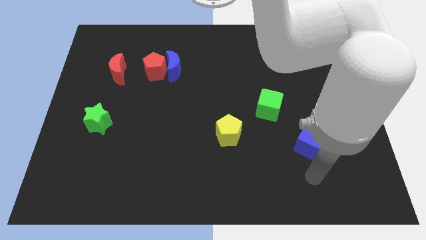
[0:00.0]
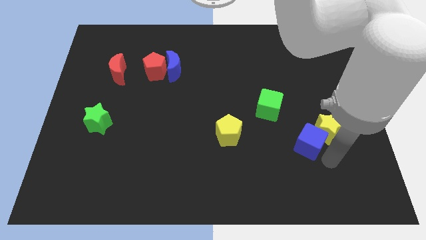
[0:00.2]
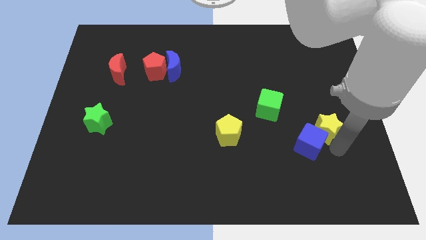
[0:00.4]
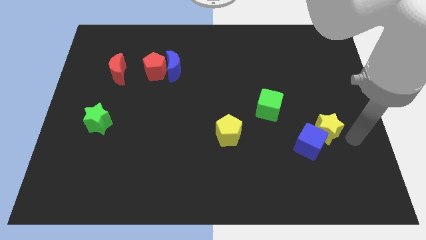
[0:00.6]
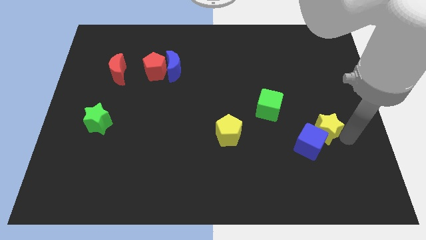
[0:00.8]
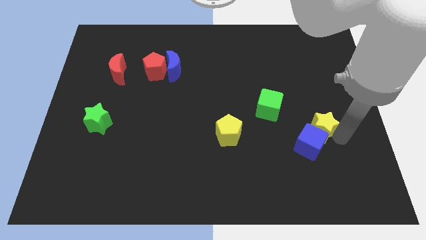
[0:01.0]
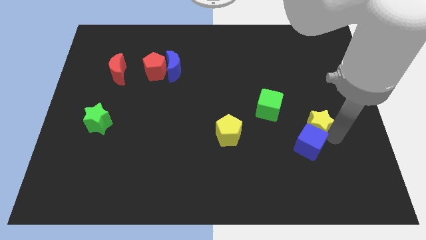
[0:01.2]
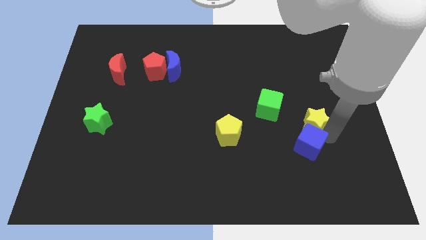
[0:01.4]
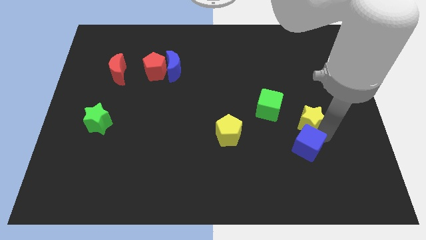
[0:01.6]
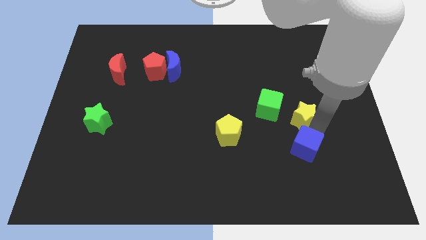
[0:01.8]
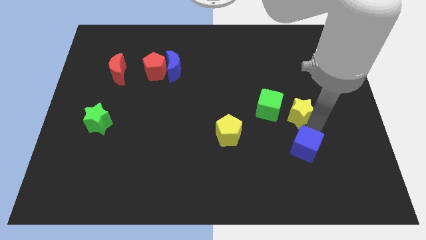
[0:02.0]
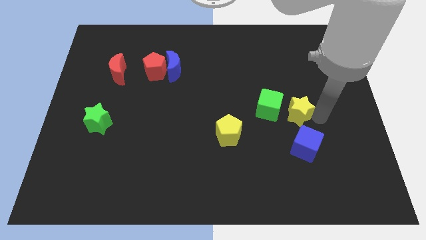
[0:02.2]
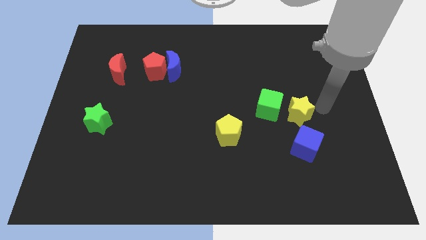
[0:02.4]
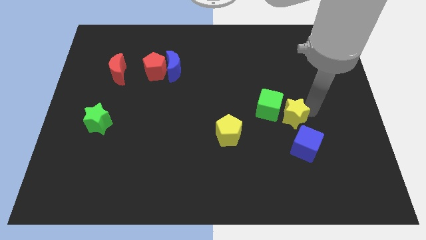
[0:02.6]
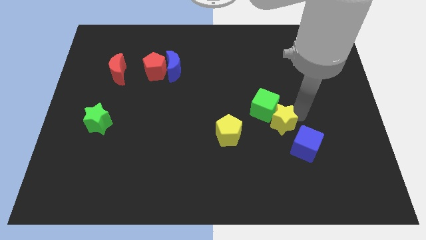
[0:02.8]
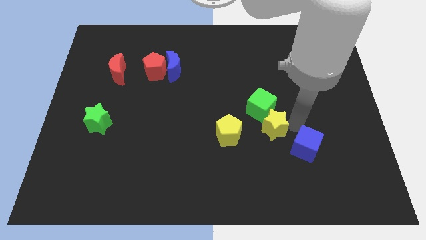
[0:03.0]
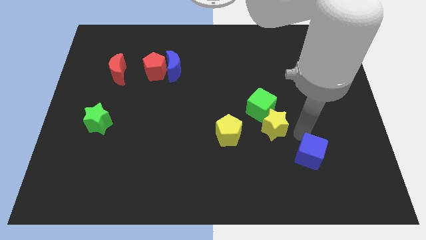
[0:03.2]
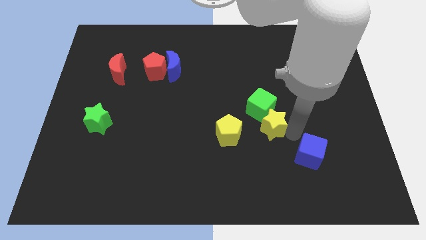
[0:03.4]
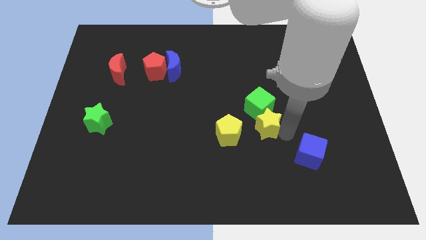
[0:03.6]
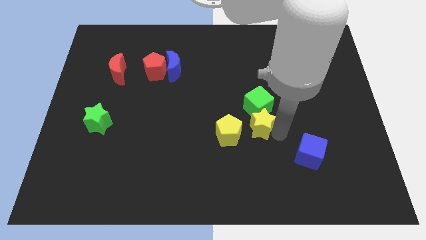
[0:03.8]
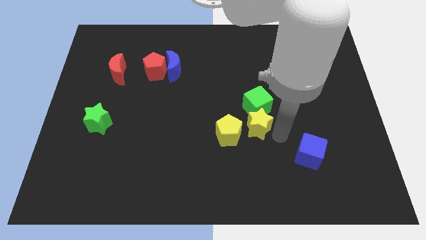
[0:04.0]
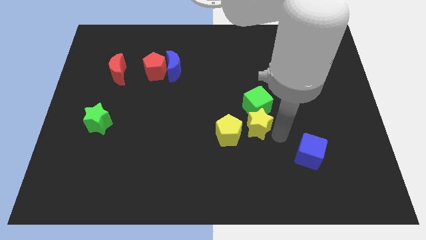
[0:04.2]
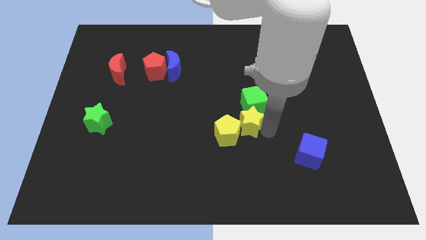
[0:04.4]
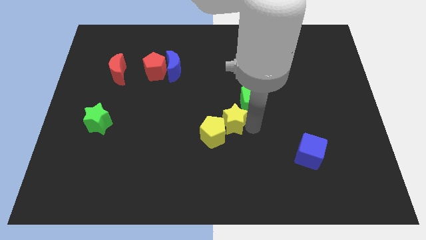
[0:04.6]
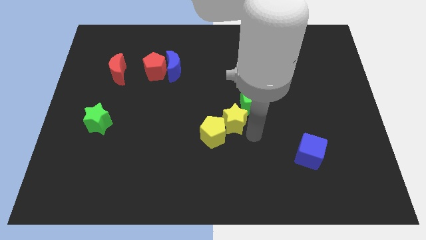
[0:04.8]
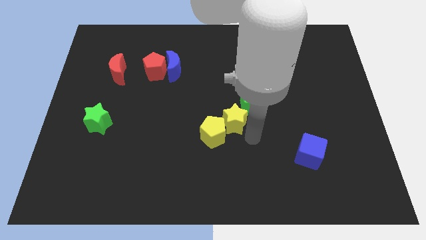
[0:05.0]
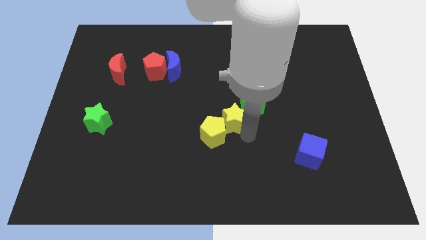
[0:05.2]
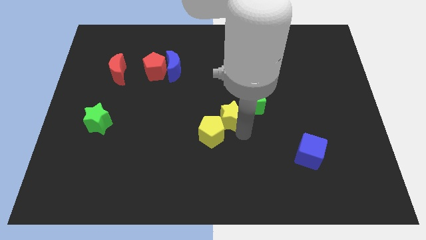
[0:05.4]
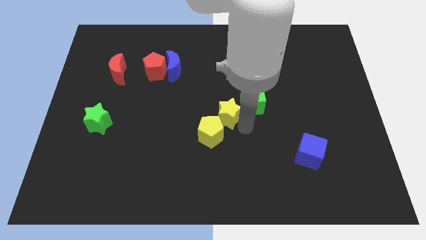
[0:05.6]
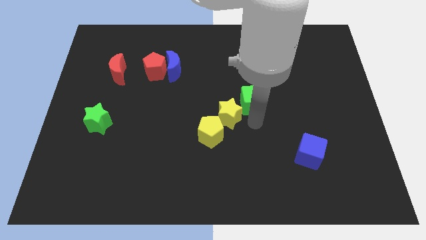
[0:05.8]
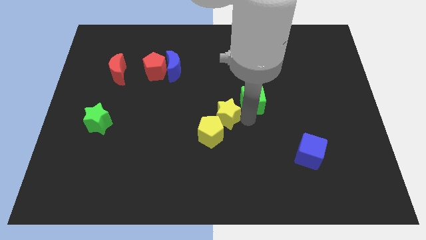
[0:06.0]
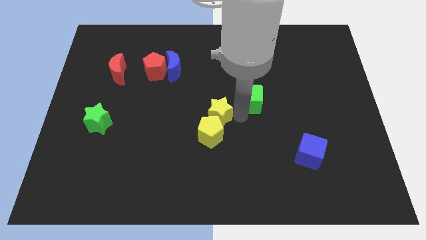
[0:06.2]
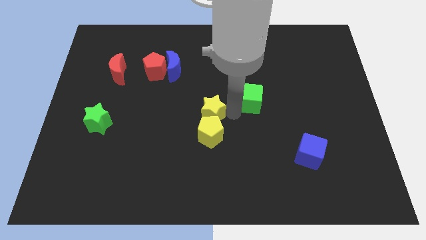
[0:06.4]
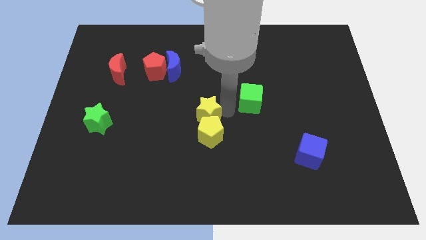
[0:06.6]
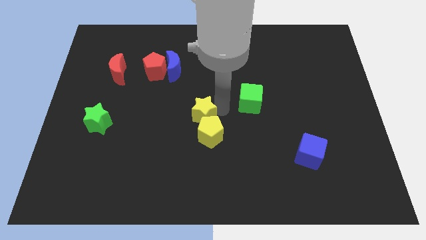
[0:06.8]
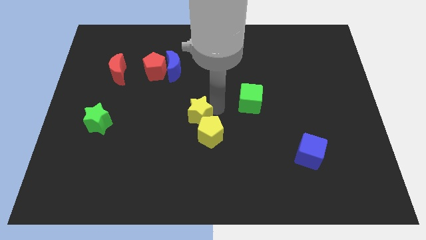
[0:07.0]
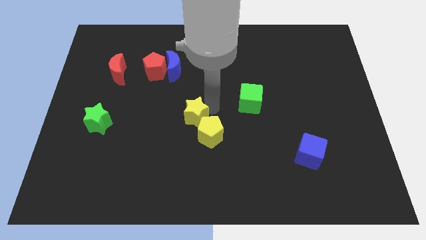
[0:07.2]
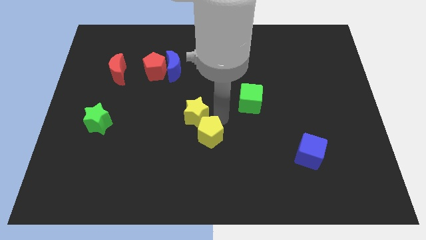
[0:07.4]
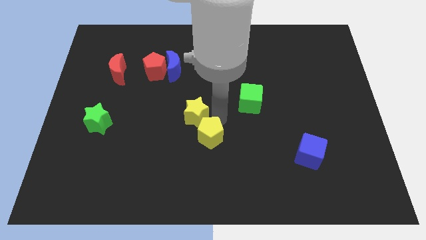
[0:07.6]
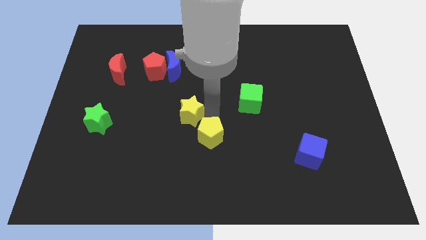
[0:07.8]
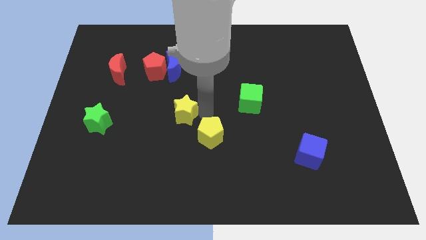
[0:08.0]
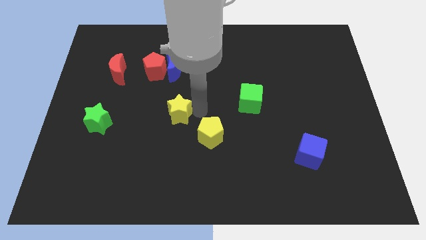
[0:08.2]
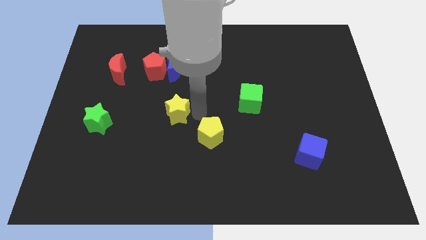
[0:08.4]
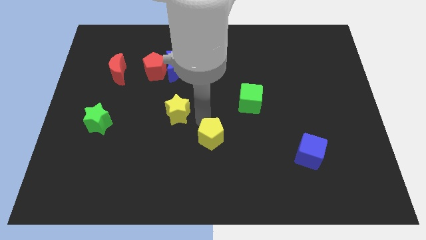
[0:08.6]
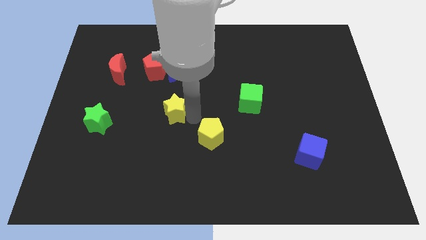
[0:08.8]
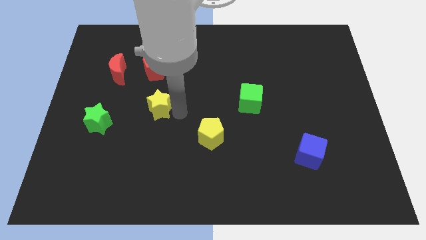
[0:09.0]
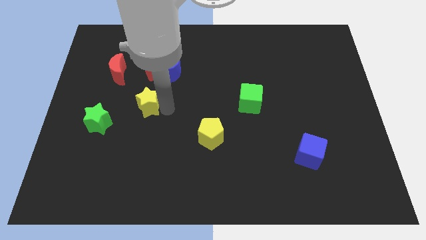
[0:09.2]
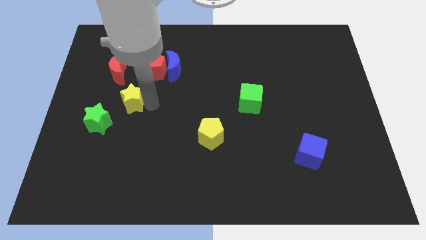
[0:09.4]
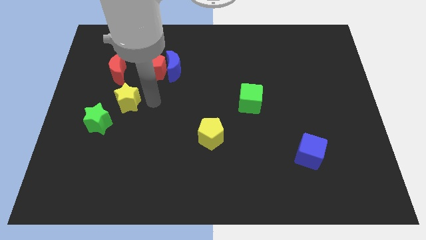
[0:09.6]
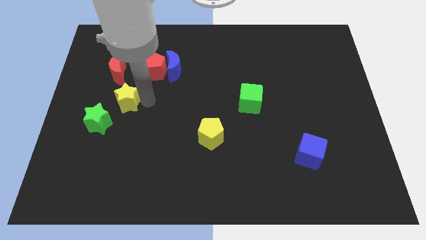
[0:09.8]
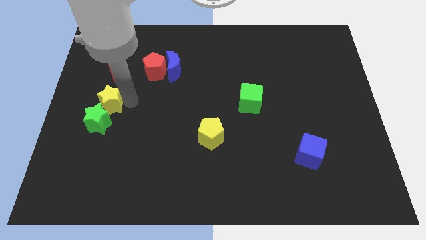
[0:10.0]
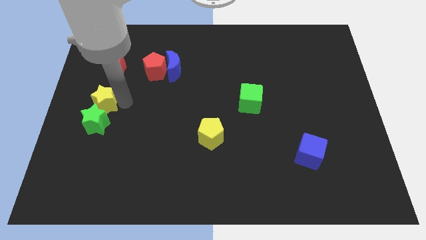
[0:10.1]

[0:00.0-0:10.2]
slide the yellow star to the left side of the board
